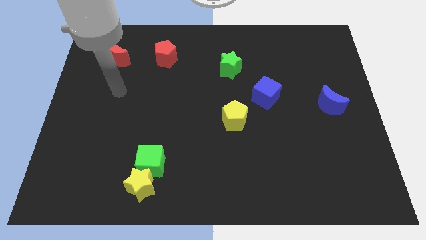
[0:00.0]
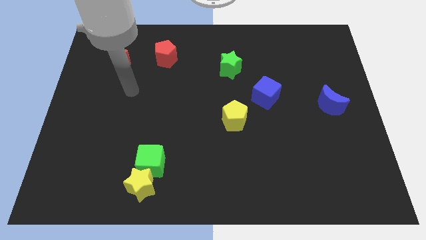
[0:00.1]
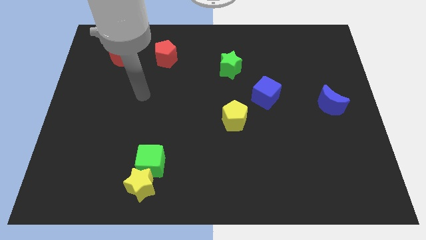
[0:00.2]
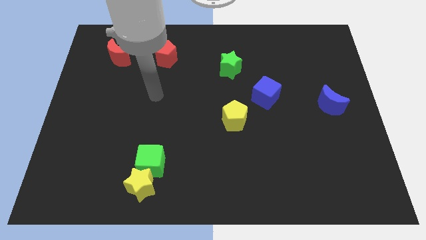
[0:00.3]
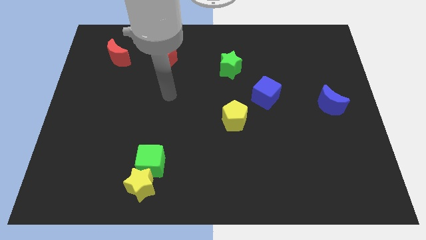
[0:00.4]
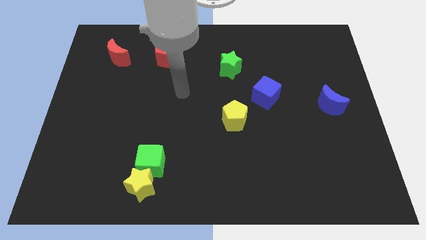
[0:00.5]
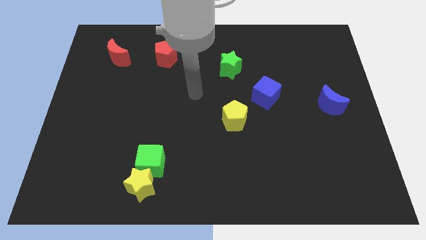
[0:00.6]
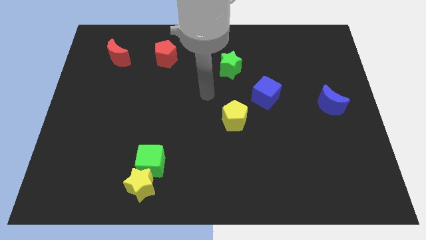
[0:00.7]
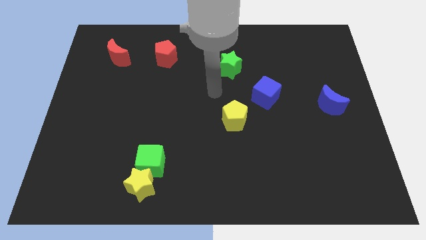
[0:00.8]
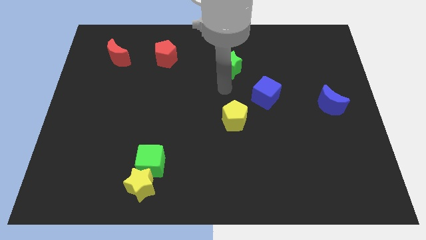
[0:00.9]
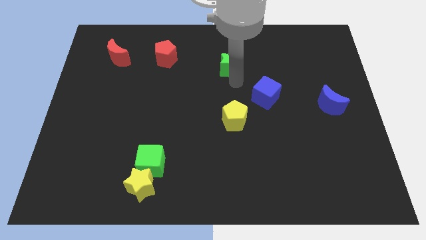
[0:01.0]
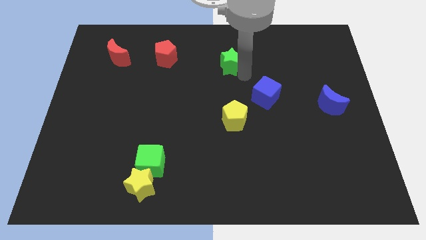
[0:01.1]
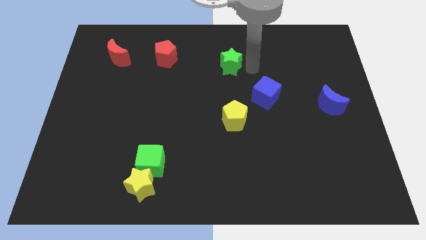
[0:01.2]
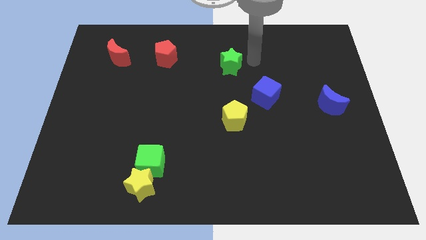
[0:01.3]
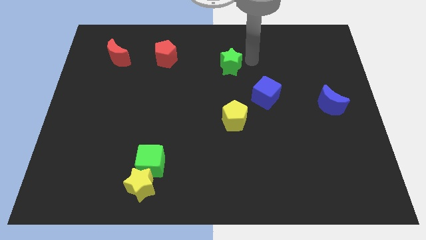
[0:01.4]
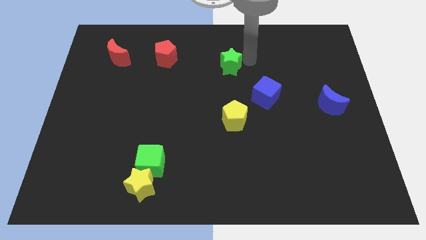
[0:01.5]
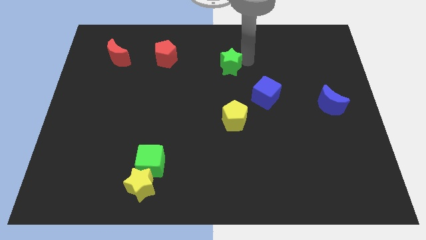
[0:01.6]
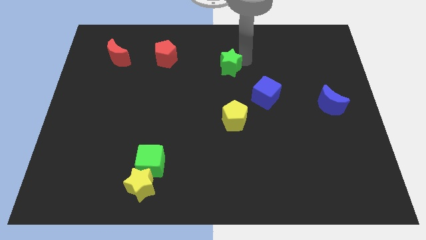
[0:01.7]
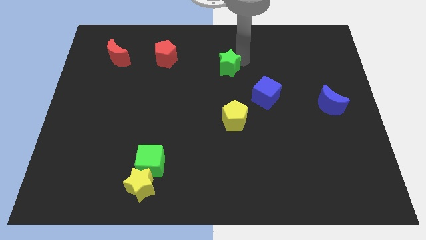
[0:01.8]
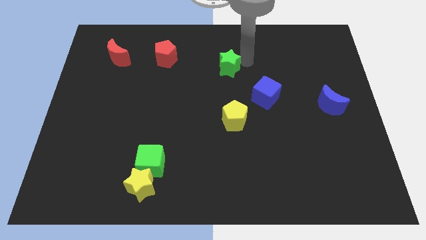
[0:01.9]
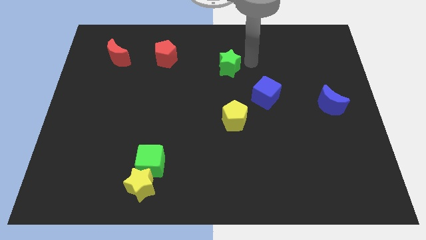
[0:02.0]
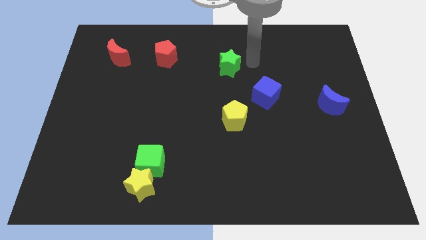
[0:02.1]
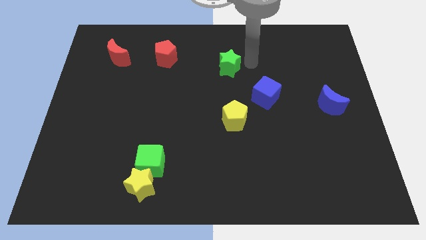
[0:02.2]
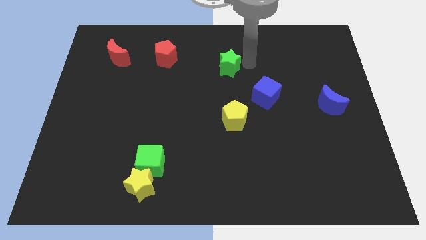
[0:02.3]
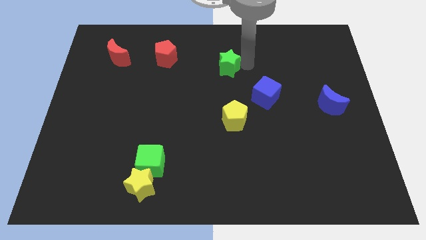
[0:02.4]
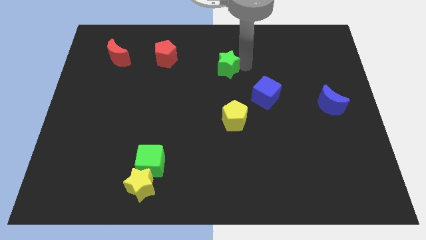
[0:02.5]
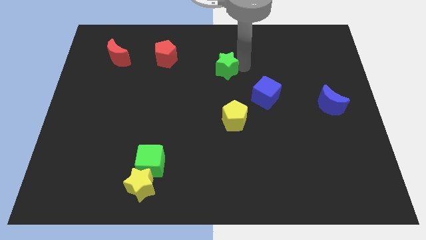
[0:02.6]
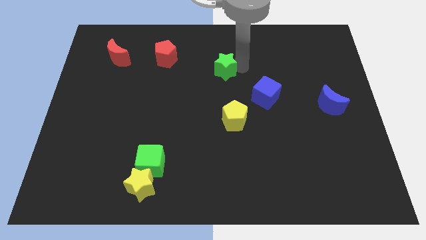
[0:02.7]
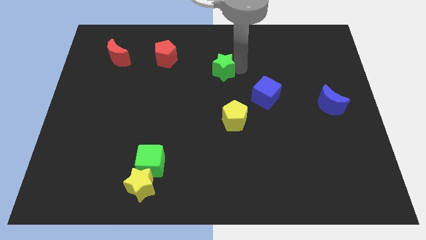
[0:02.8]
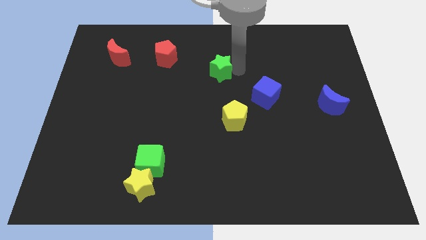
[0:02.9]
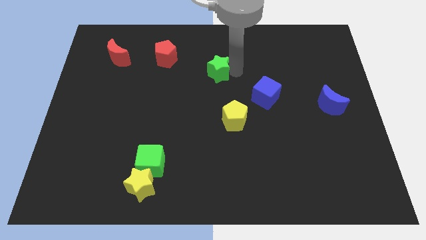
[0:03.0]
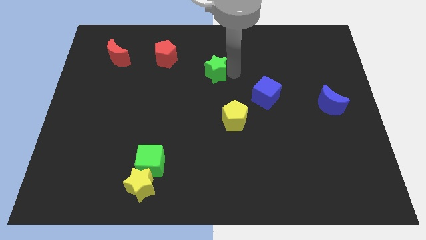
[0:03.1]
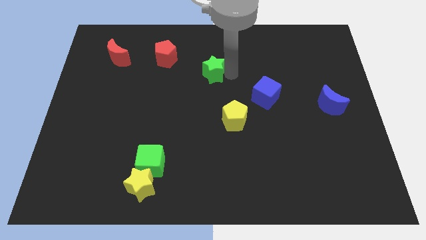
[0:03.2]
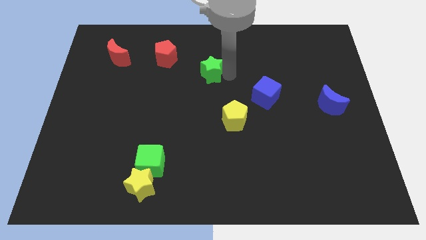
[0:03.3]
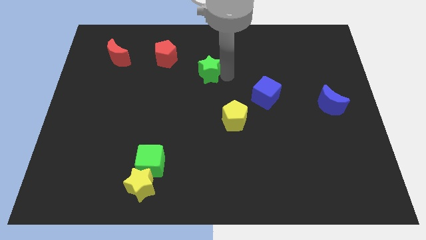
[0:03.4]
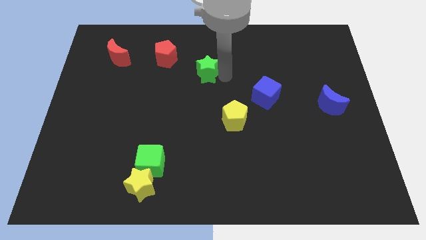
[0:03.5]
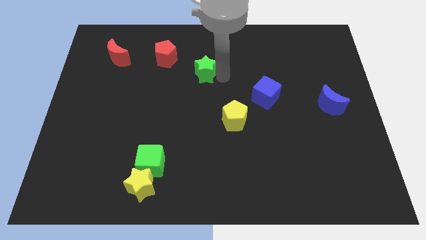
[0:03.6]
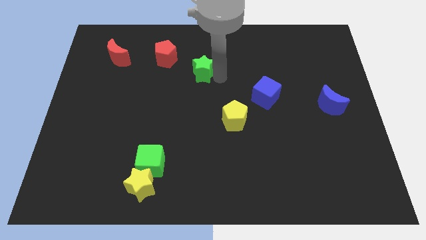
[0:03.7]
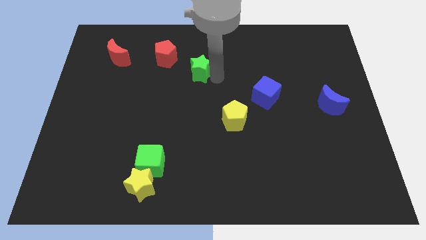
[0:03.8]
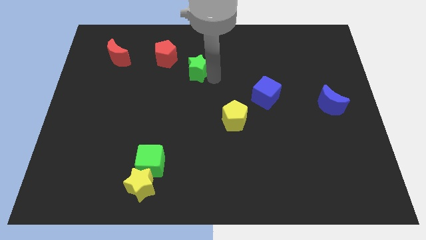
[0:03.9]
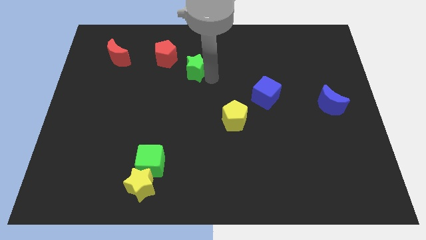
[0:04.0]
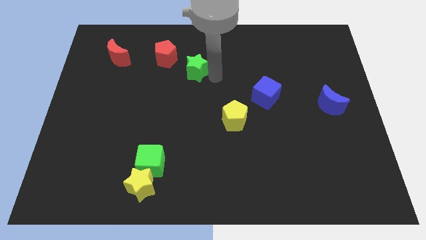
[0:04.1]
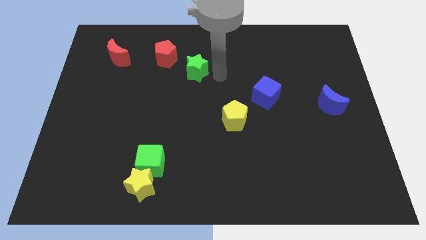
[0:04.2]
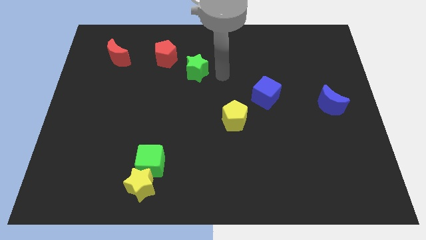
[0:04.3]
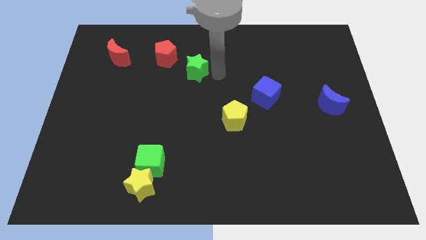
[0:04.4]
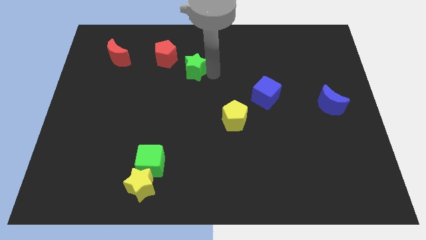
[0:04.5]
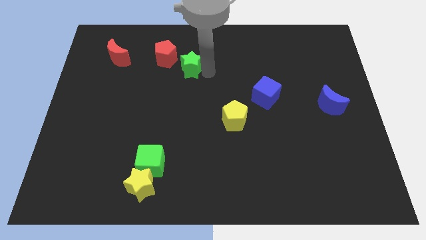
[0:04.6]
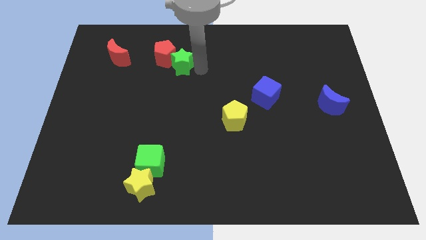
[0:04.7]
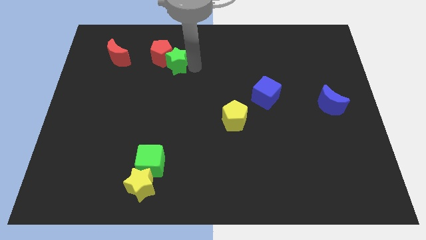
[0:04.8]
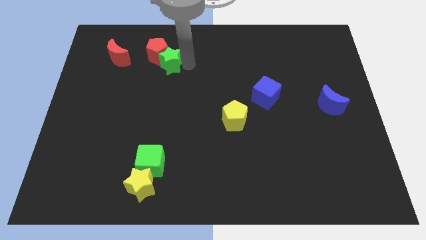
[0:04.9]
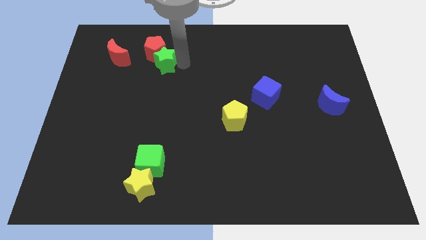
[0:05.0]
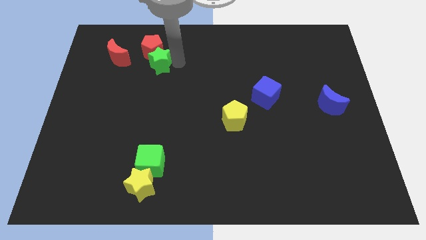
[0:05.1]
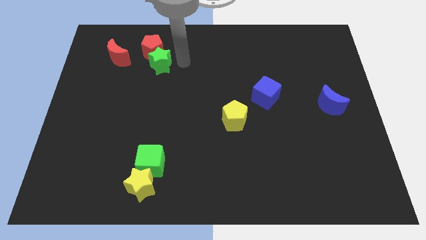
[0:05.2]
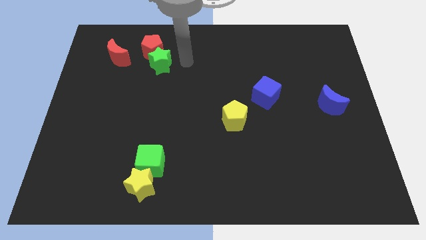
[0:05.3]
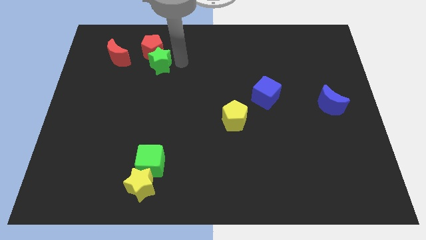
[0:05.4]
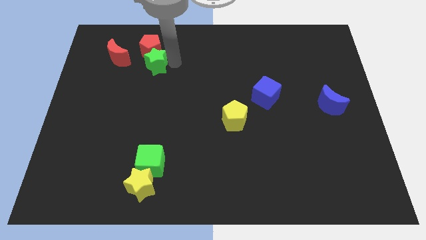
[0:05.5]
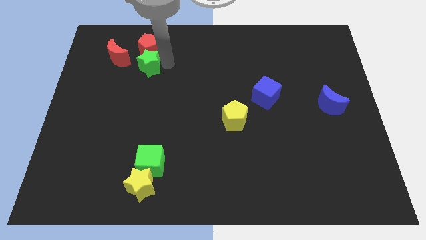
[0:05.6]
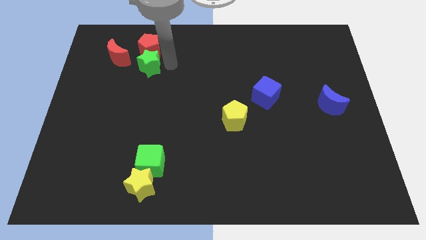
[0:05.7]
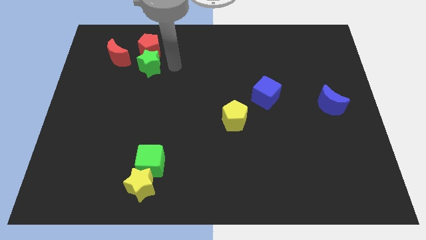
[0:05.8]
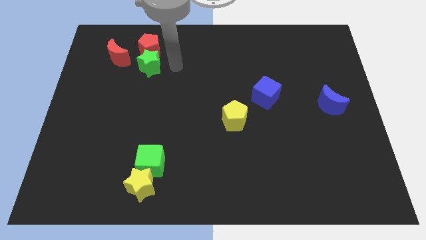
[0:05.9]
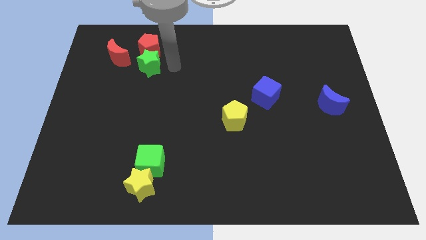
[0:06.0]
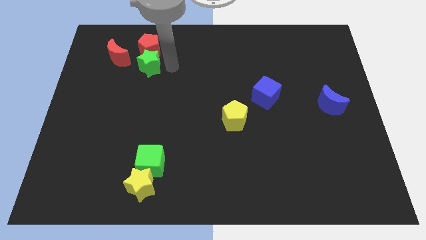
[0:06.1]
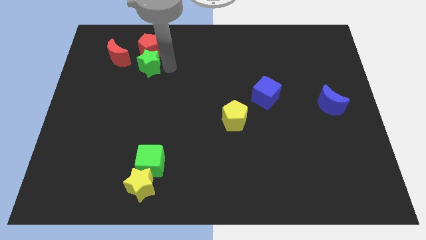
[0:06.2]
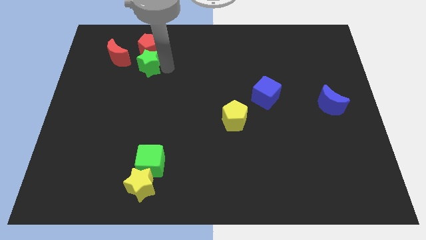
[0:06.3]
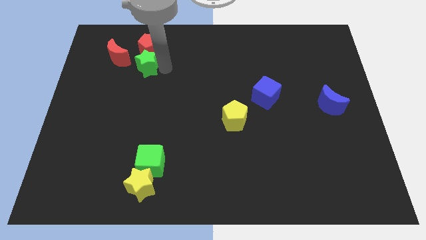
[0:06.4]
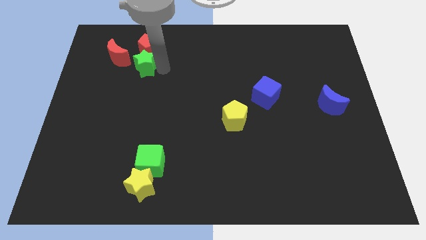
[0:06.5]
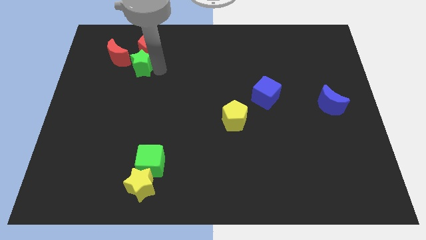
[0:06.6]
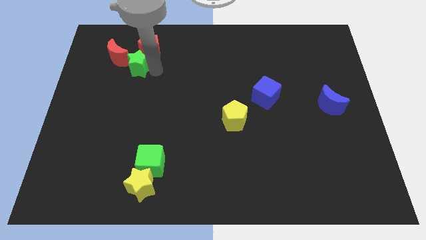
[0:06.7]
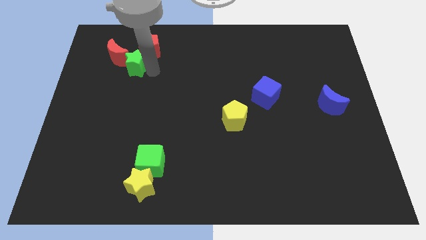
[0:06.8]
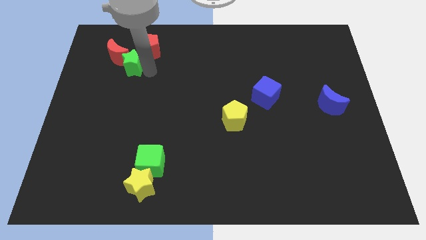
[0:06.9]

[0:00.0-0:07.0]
push the green star next to the red moon

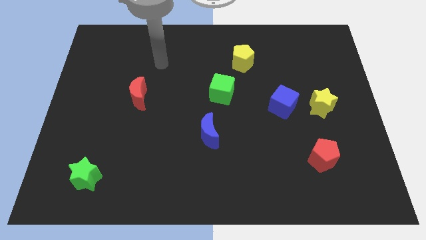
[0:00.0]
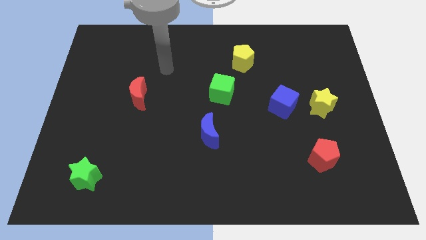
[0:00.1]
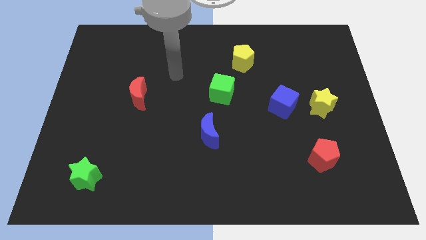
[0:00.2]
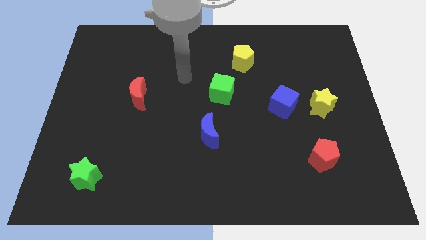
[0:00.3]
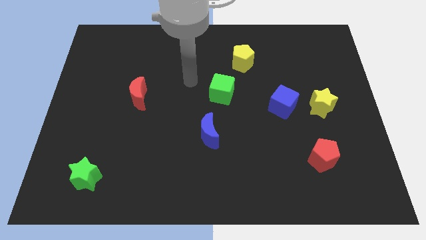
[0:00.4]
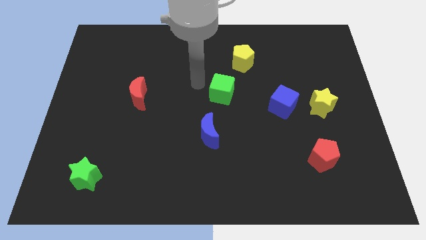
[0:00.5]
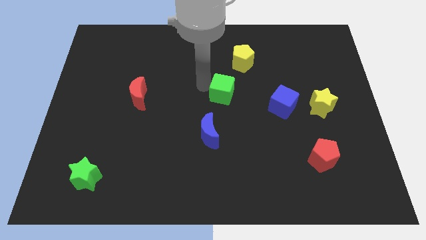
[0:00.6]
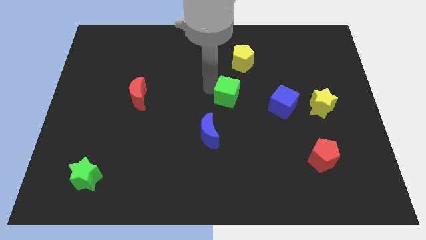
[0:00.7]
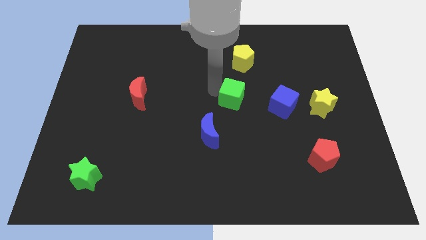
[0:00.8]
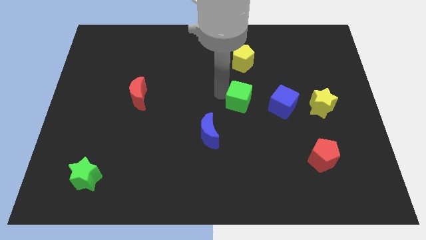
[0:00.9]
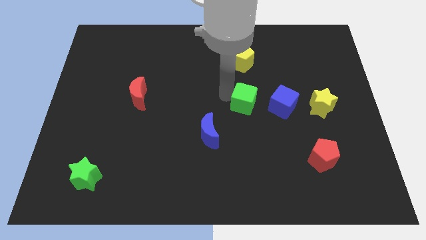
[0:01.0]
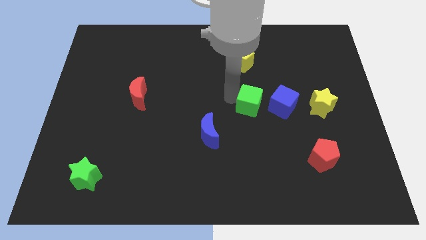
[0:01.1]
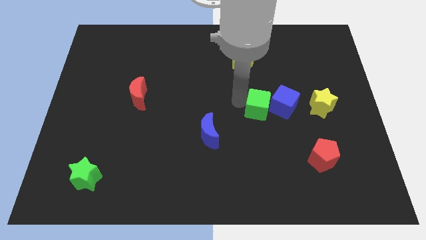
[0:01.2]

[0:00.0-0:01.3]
put the green cube to the blue cube
